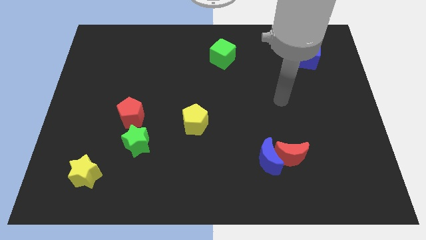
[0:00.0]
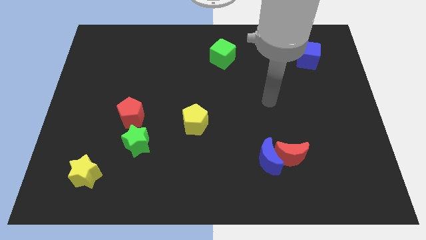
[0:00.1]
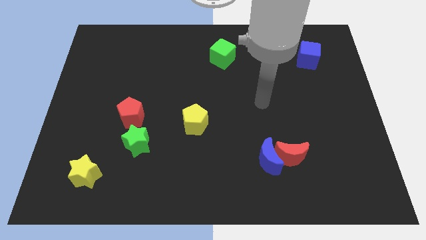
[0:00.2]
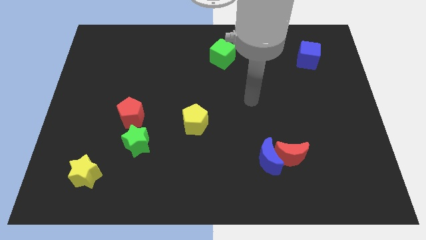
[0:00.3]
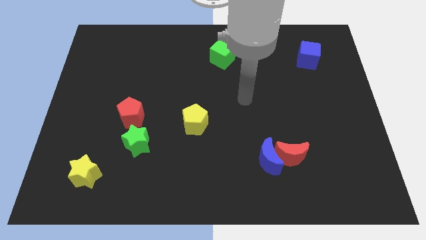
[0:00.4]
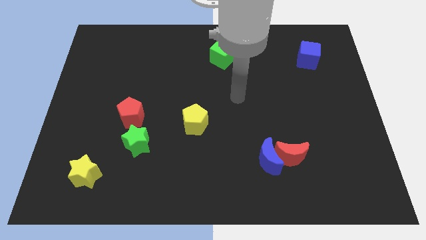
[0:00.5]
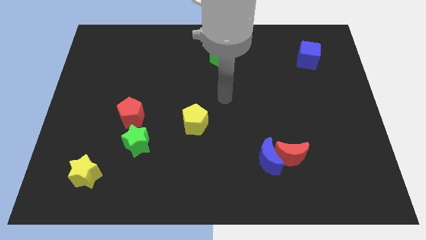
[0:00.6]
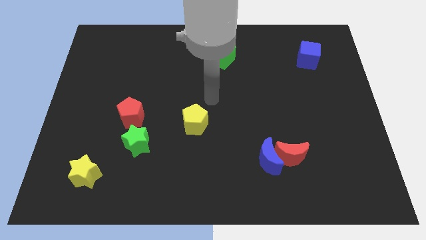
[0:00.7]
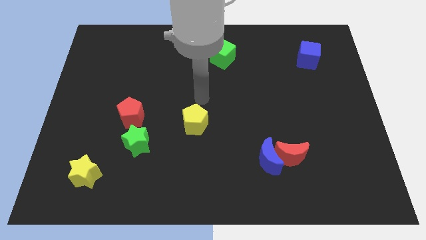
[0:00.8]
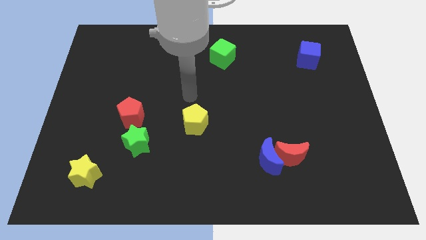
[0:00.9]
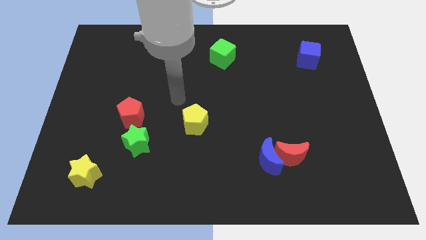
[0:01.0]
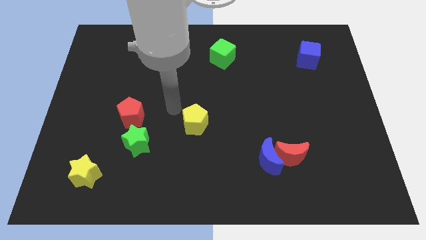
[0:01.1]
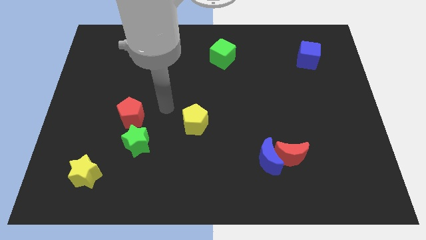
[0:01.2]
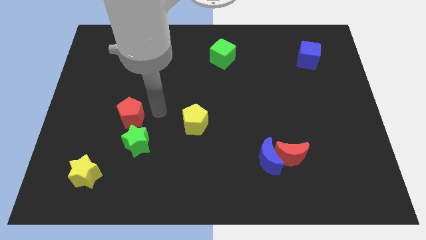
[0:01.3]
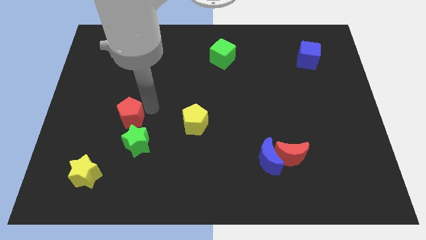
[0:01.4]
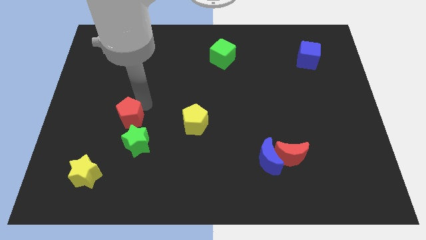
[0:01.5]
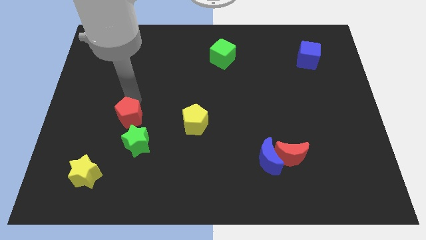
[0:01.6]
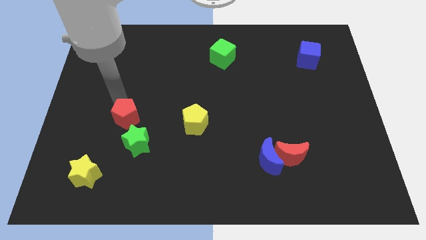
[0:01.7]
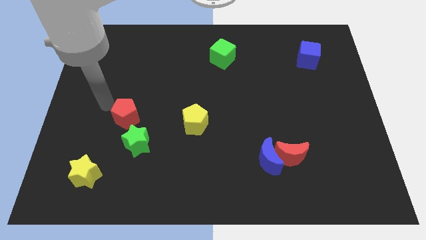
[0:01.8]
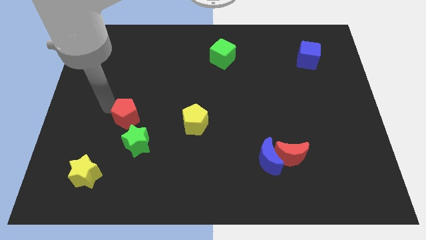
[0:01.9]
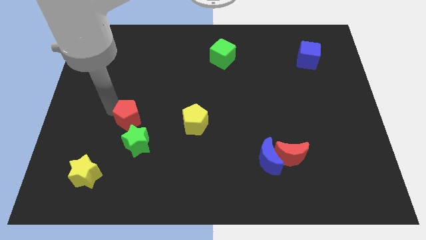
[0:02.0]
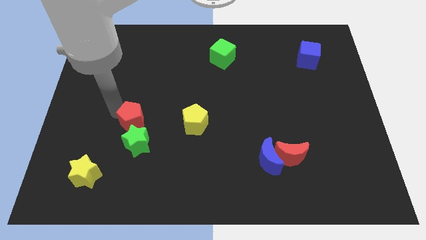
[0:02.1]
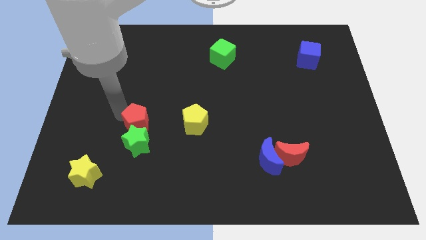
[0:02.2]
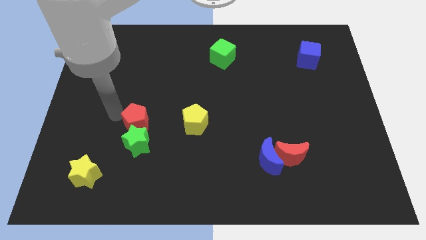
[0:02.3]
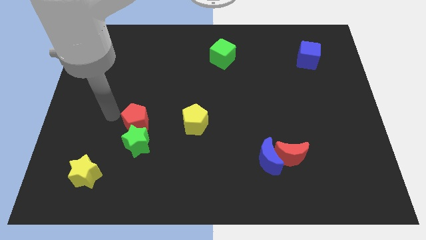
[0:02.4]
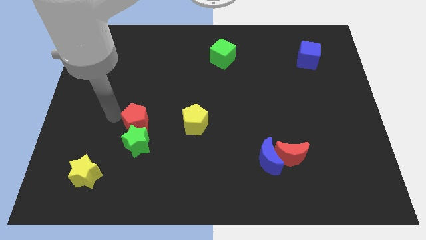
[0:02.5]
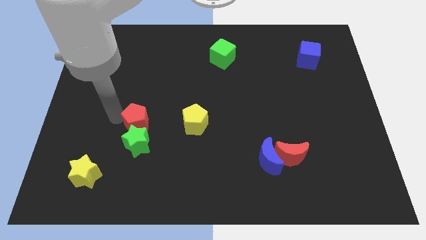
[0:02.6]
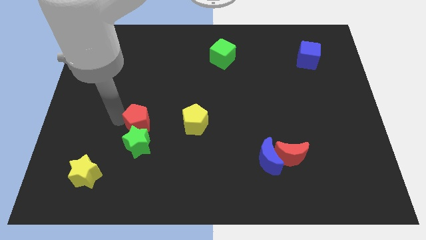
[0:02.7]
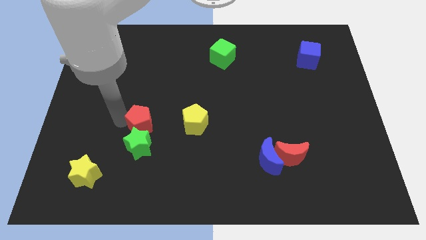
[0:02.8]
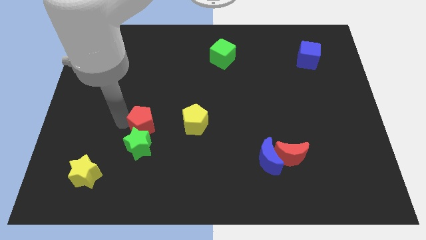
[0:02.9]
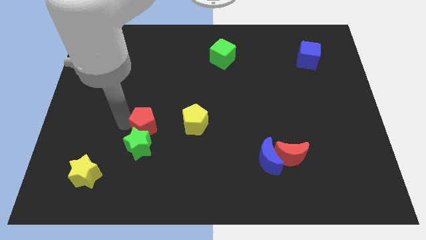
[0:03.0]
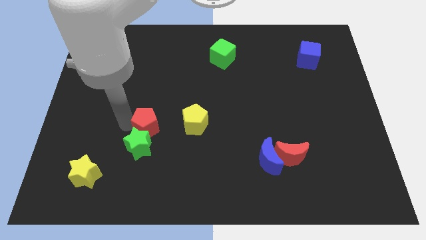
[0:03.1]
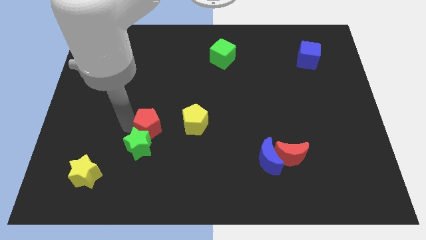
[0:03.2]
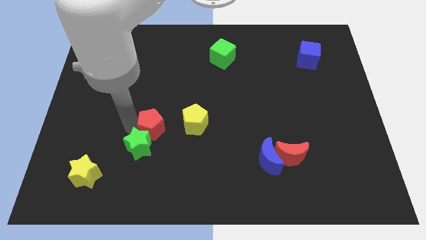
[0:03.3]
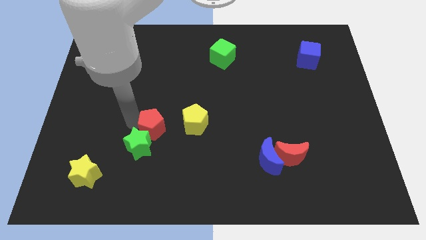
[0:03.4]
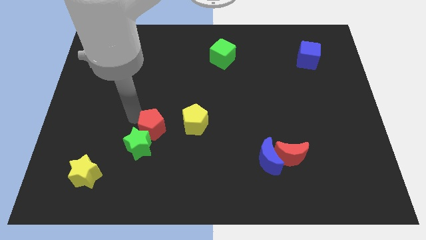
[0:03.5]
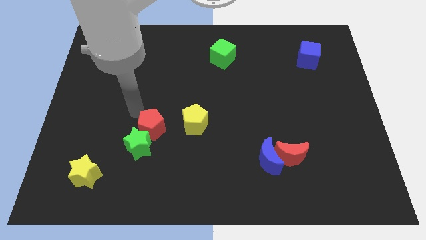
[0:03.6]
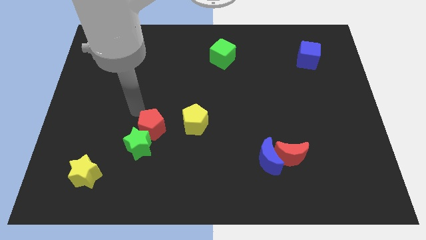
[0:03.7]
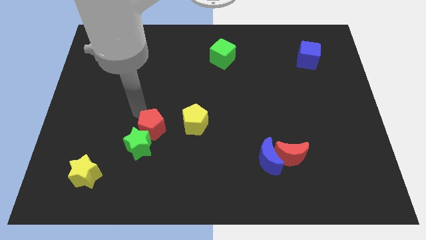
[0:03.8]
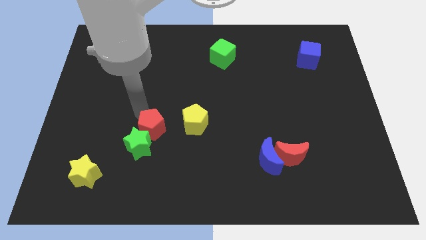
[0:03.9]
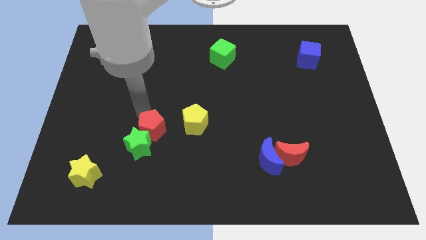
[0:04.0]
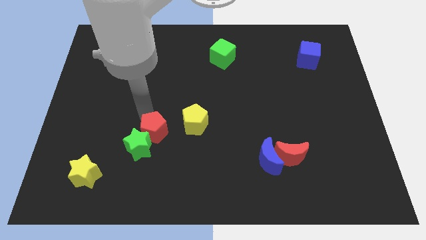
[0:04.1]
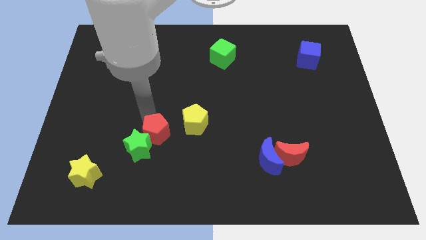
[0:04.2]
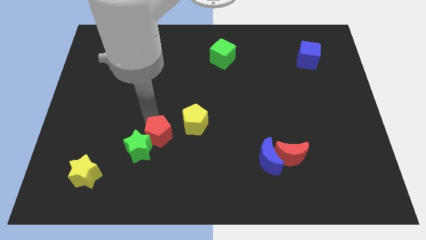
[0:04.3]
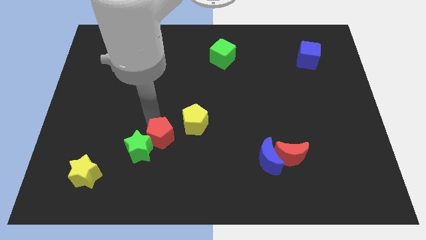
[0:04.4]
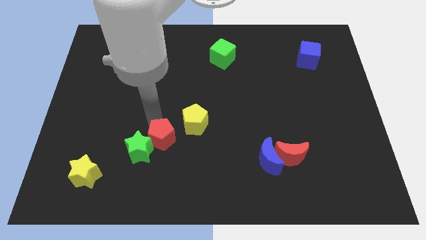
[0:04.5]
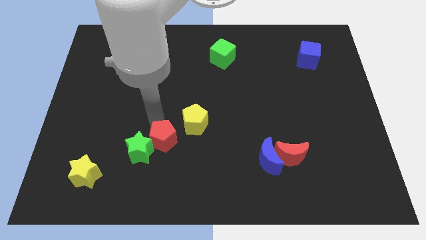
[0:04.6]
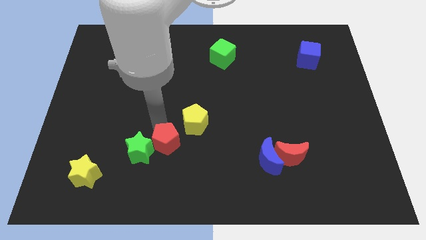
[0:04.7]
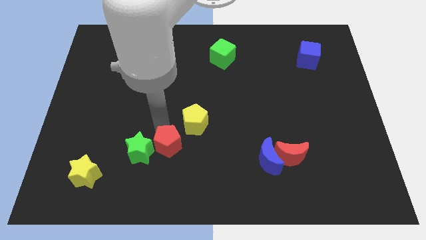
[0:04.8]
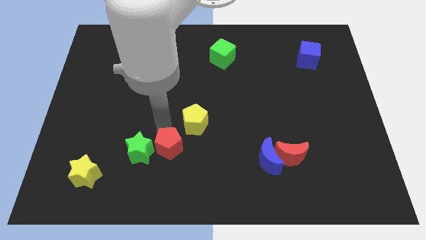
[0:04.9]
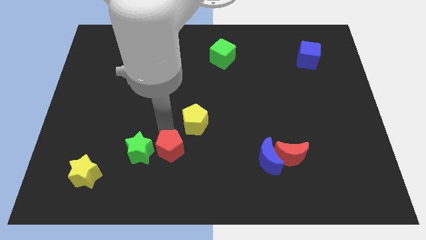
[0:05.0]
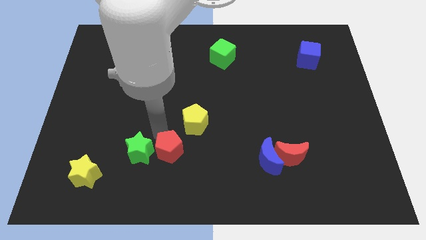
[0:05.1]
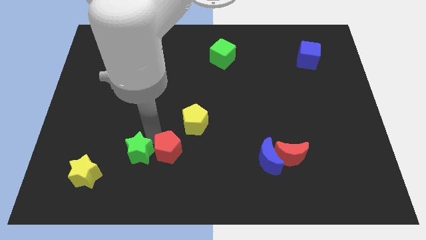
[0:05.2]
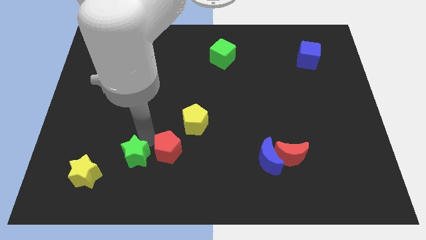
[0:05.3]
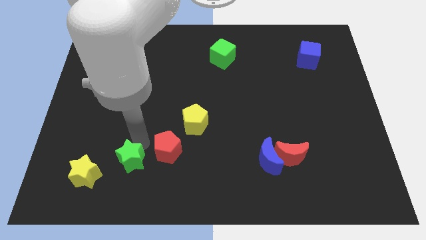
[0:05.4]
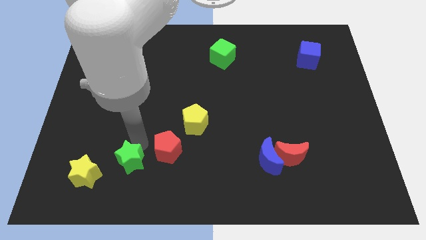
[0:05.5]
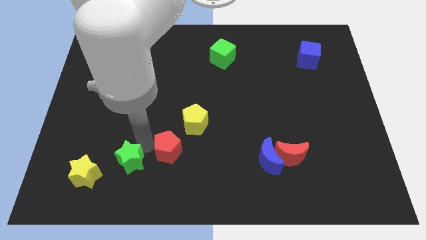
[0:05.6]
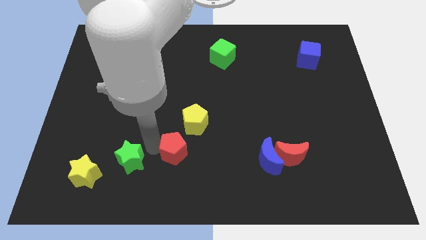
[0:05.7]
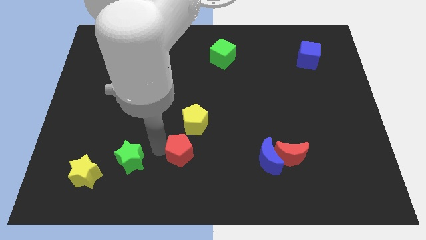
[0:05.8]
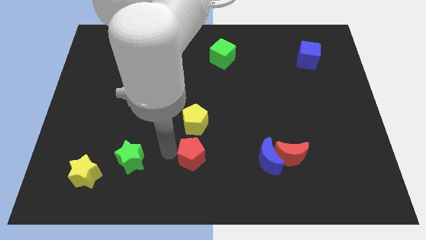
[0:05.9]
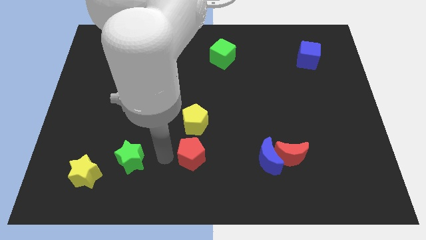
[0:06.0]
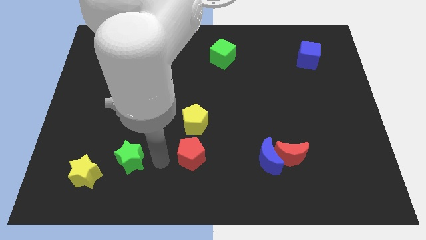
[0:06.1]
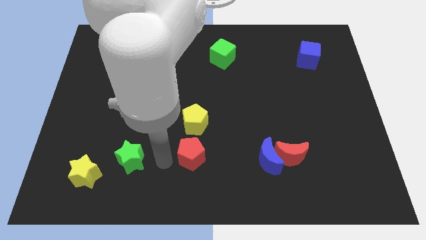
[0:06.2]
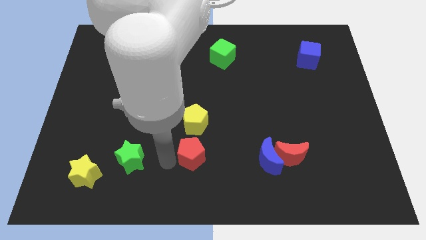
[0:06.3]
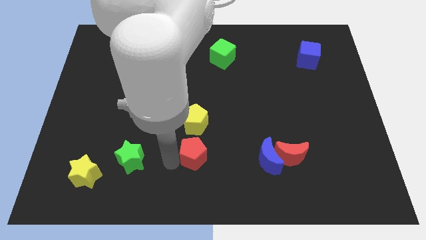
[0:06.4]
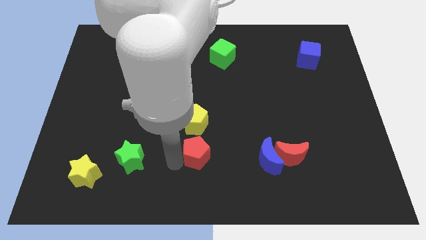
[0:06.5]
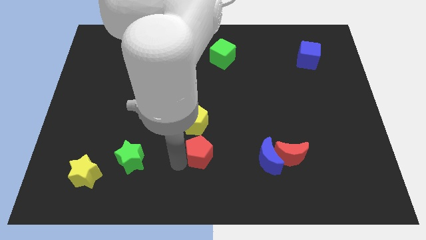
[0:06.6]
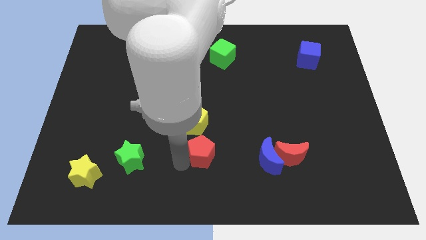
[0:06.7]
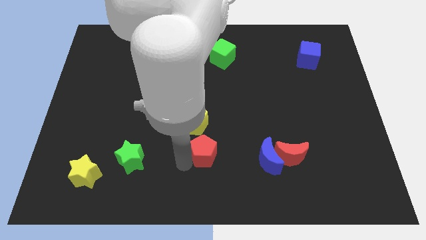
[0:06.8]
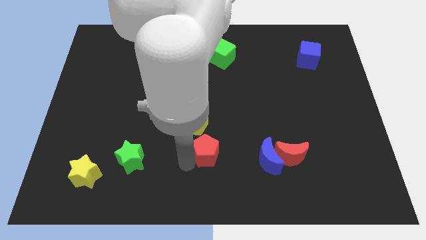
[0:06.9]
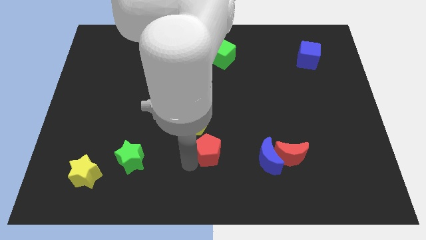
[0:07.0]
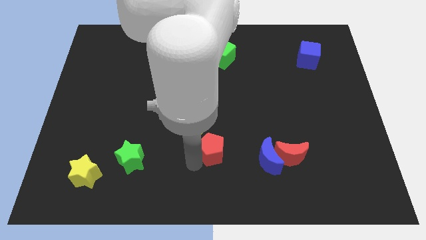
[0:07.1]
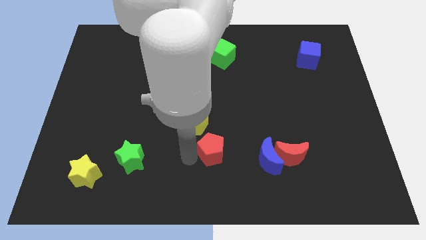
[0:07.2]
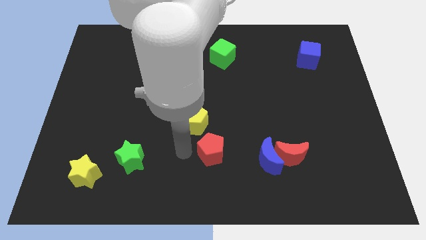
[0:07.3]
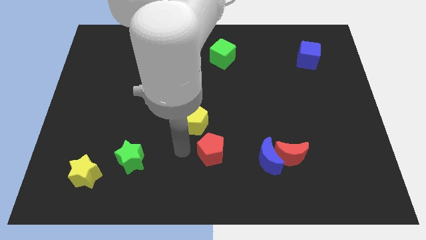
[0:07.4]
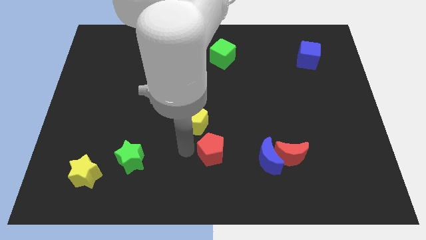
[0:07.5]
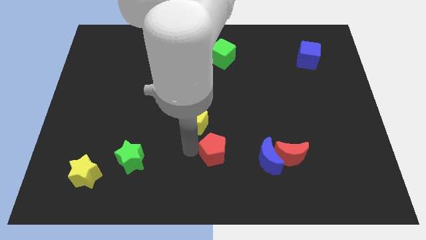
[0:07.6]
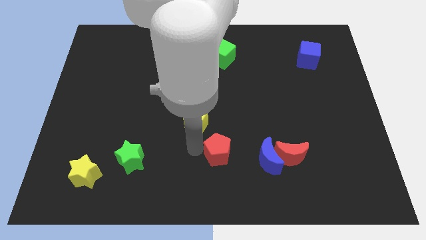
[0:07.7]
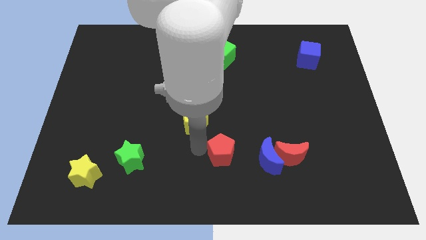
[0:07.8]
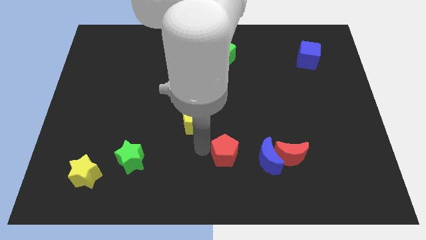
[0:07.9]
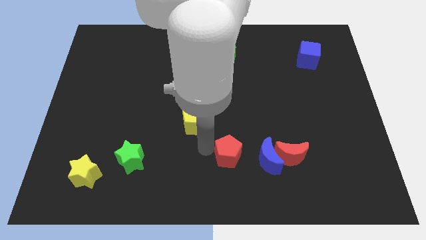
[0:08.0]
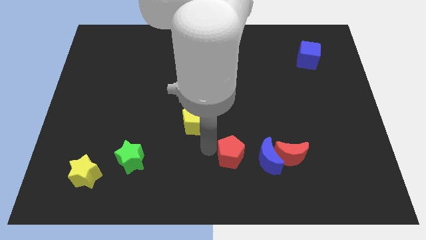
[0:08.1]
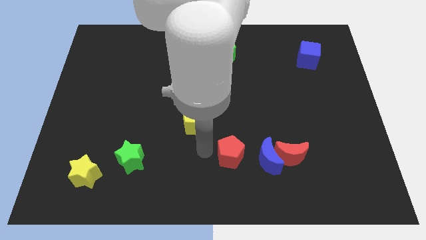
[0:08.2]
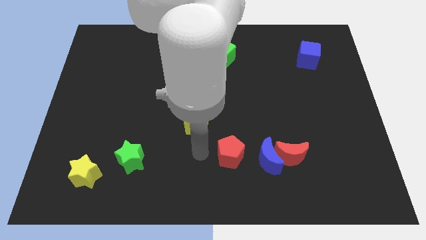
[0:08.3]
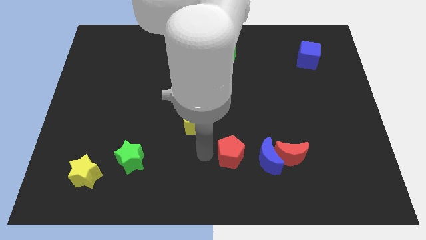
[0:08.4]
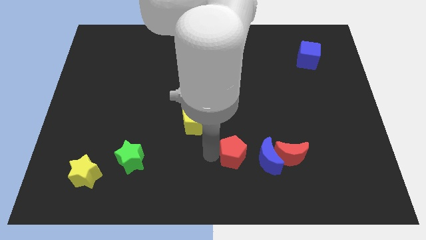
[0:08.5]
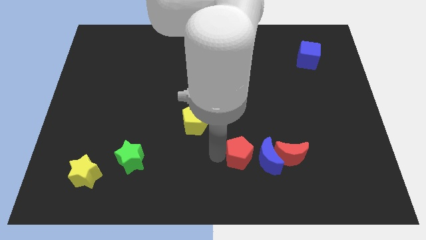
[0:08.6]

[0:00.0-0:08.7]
move the red pentagon to the blue moon
